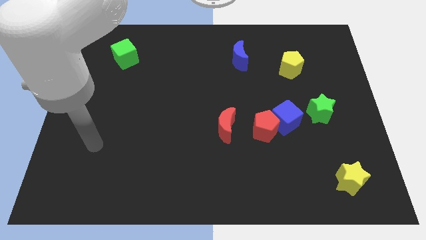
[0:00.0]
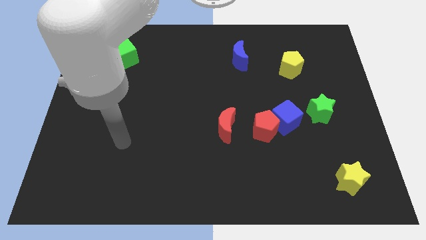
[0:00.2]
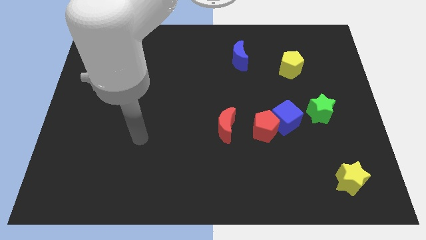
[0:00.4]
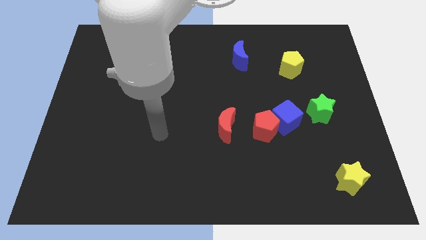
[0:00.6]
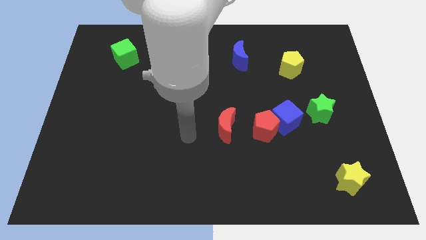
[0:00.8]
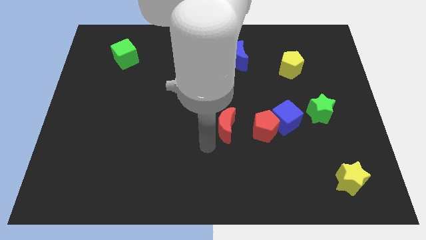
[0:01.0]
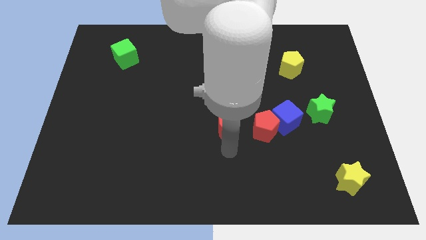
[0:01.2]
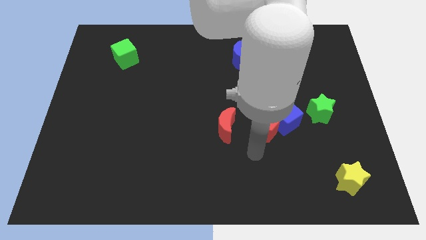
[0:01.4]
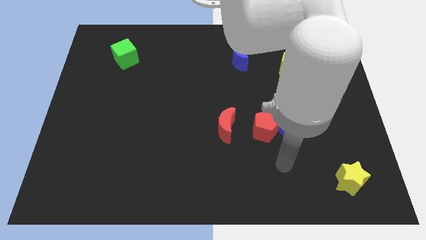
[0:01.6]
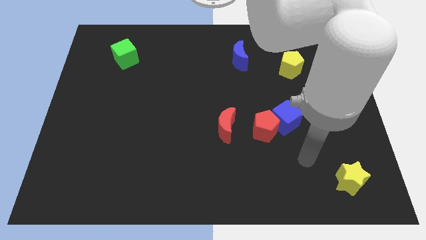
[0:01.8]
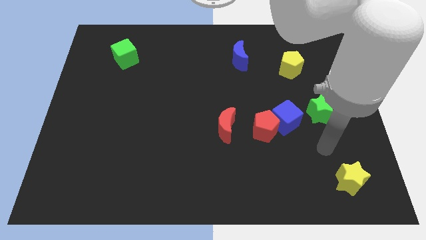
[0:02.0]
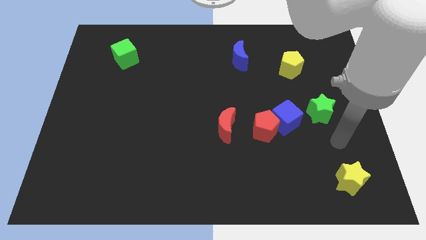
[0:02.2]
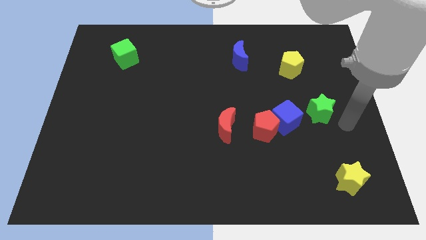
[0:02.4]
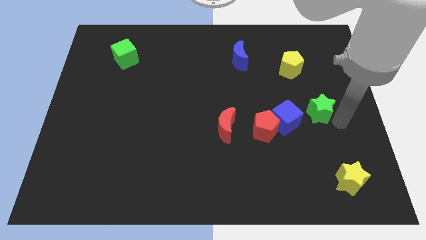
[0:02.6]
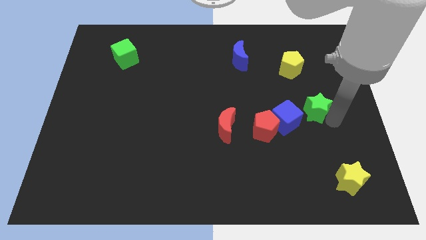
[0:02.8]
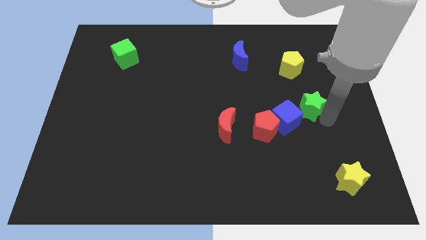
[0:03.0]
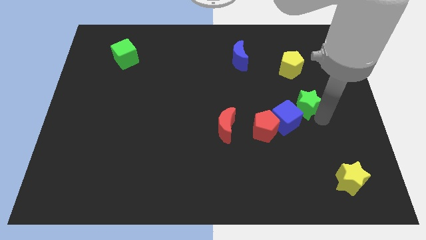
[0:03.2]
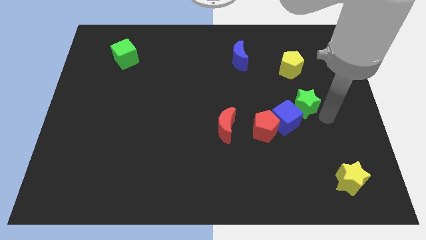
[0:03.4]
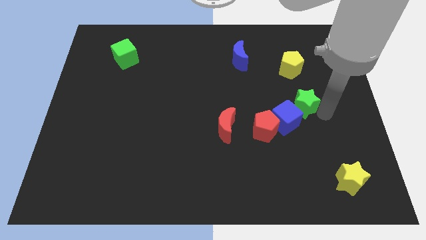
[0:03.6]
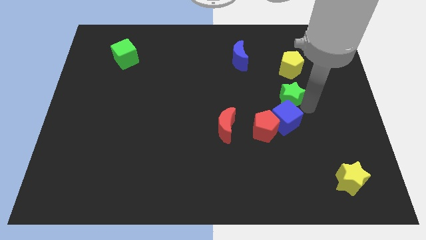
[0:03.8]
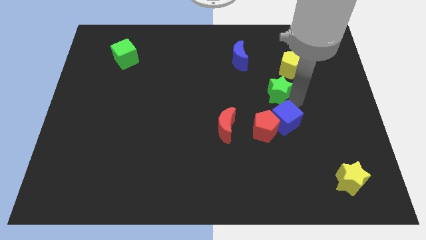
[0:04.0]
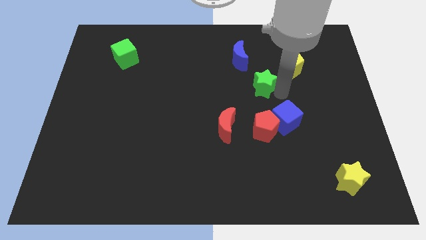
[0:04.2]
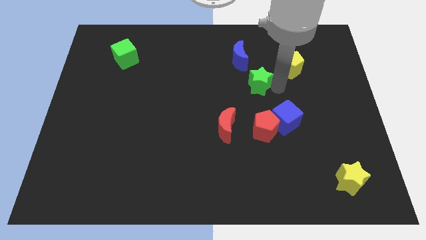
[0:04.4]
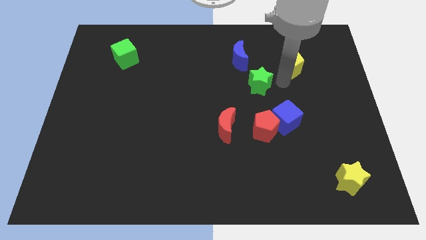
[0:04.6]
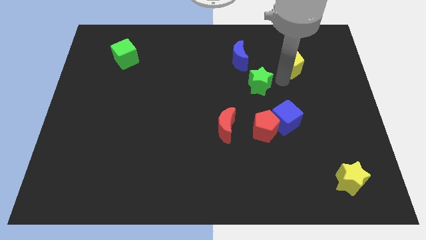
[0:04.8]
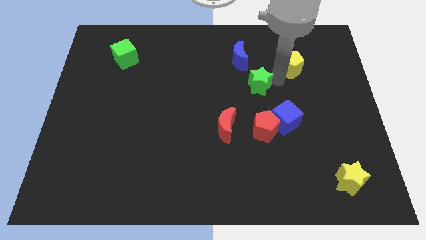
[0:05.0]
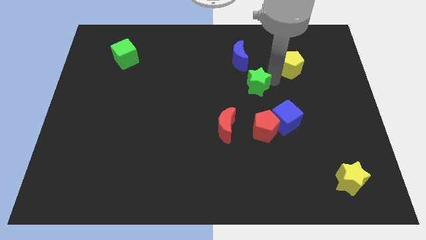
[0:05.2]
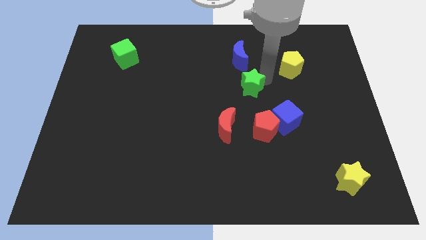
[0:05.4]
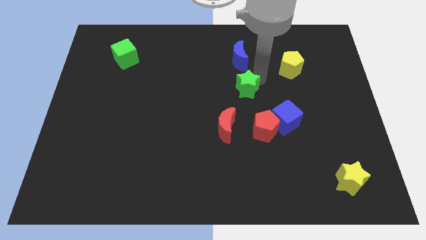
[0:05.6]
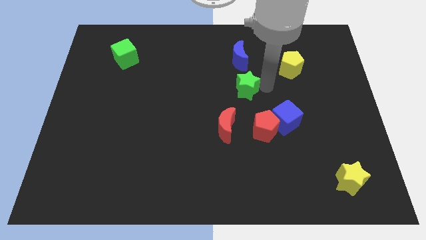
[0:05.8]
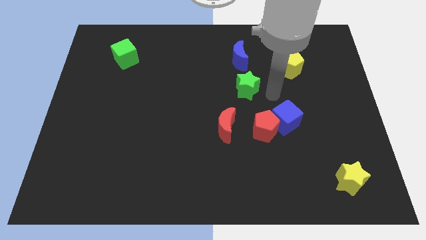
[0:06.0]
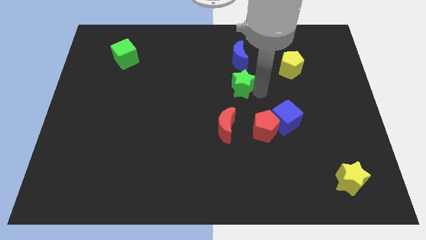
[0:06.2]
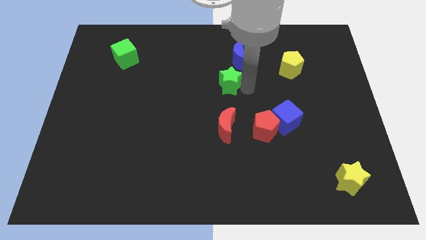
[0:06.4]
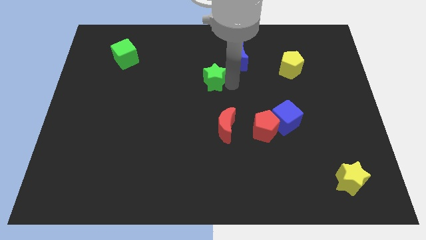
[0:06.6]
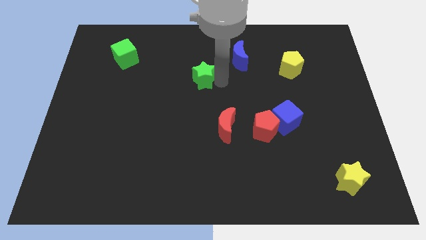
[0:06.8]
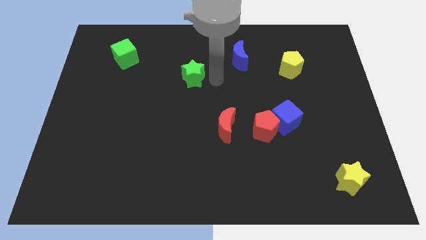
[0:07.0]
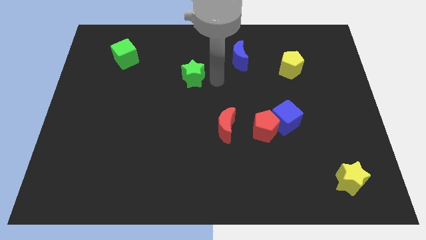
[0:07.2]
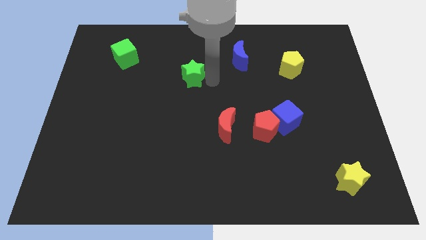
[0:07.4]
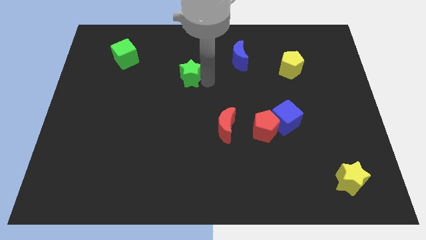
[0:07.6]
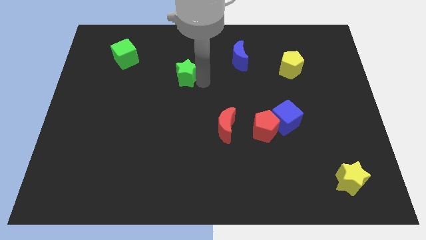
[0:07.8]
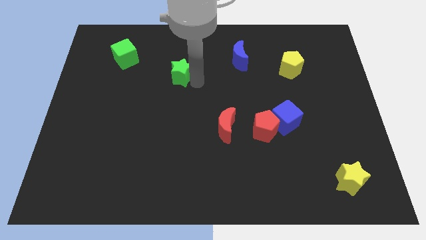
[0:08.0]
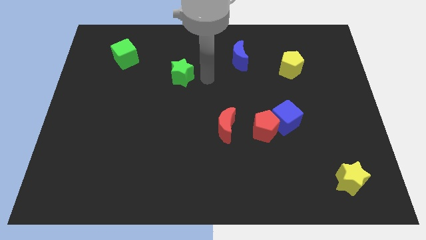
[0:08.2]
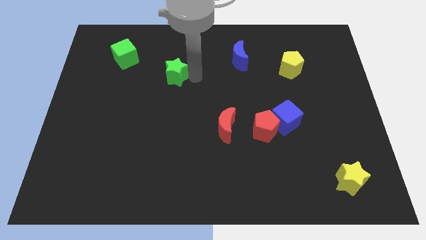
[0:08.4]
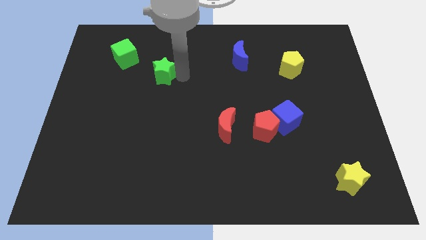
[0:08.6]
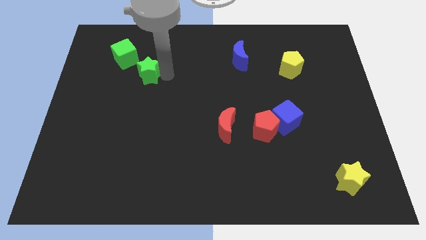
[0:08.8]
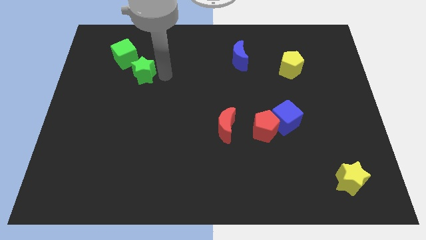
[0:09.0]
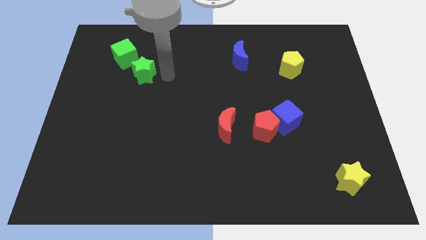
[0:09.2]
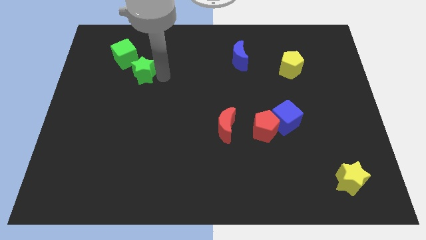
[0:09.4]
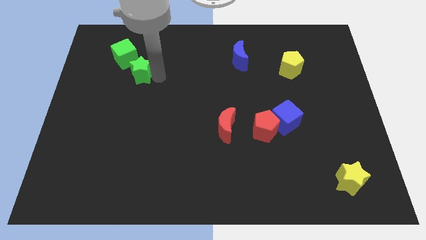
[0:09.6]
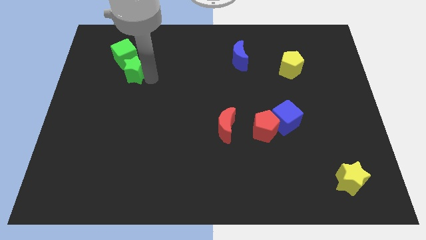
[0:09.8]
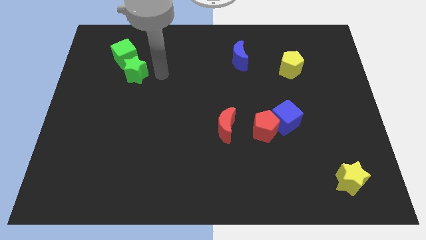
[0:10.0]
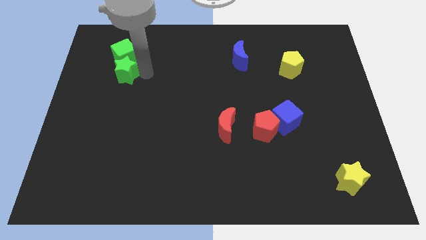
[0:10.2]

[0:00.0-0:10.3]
push the green star to the bottom left side of the green cube

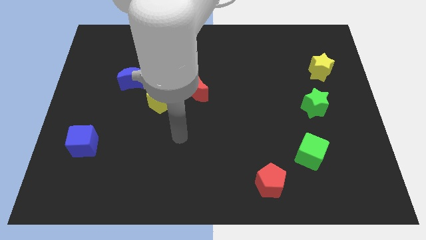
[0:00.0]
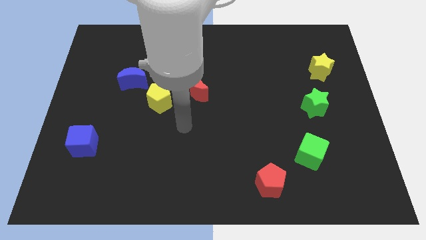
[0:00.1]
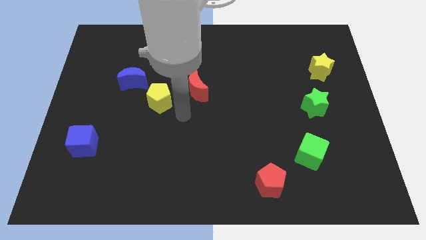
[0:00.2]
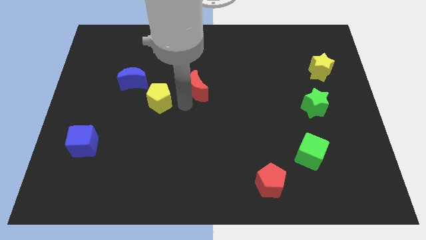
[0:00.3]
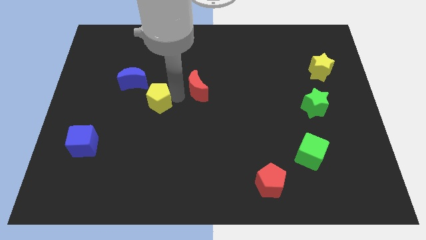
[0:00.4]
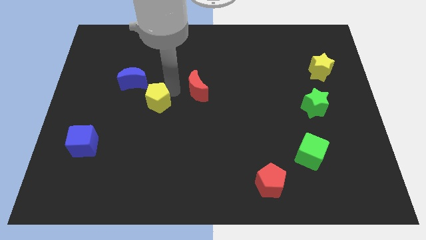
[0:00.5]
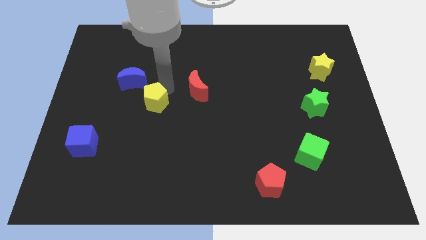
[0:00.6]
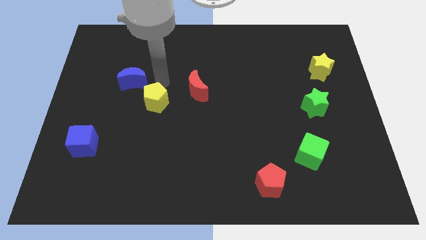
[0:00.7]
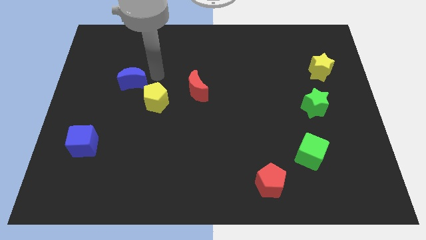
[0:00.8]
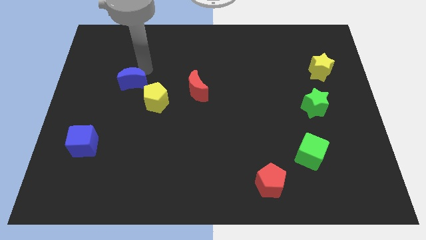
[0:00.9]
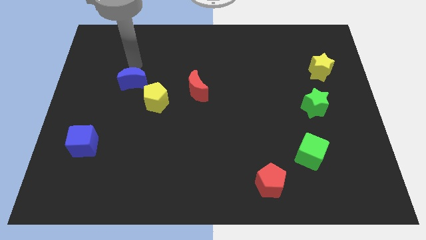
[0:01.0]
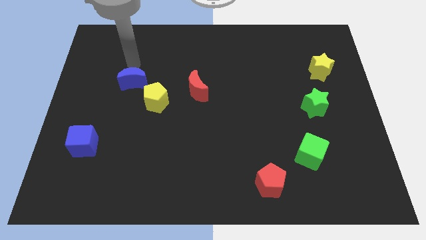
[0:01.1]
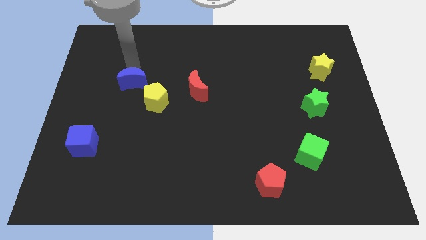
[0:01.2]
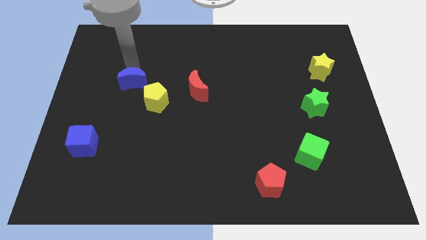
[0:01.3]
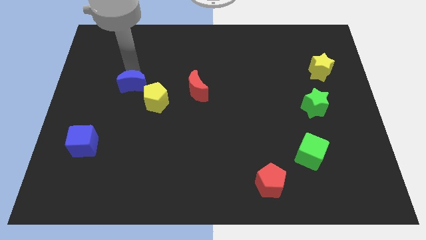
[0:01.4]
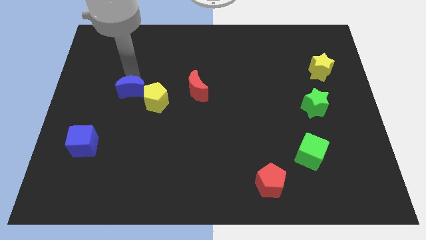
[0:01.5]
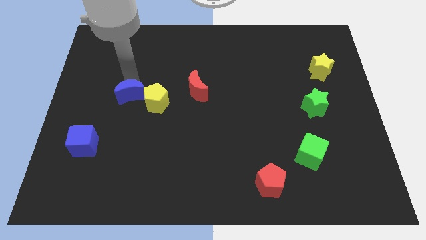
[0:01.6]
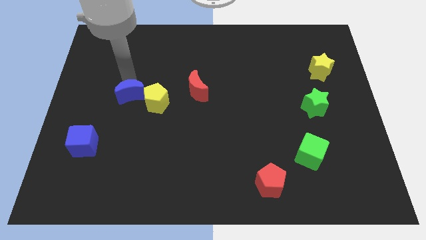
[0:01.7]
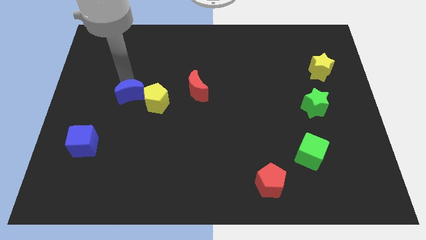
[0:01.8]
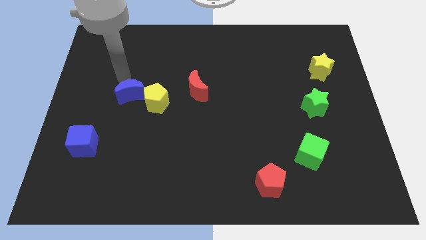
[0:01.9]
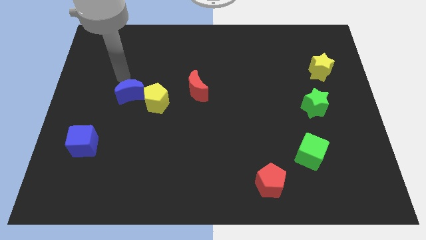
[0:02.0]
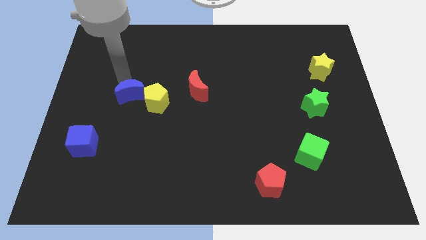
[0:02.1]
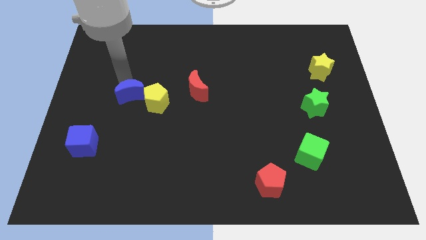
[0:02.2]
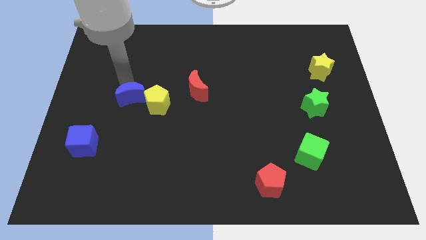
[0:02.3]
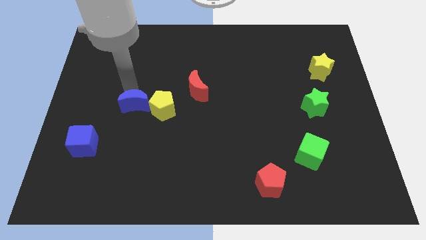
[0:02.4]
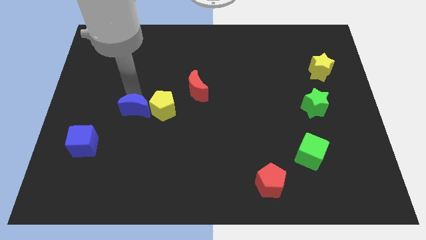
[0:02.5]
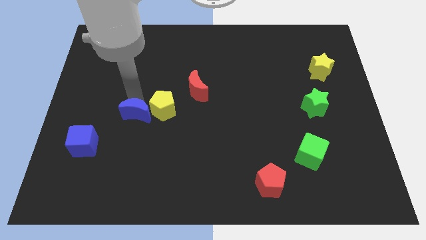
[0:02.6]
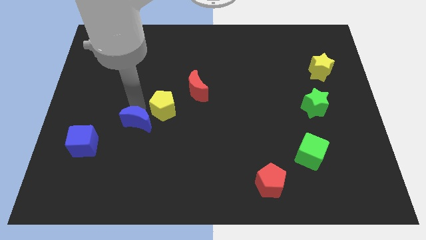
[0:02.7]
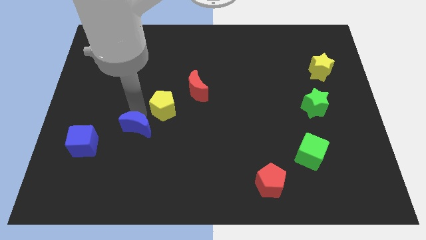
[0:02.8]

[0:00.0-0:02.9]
put the blue moon to the right side of the blue cube
